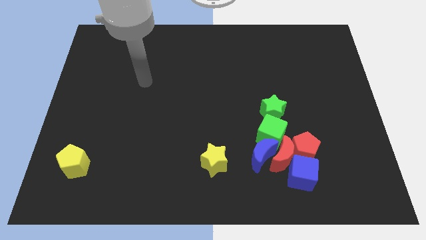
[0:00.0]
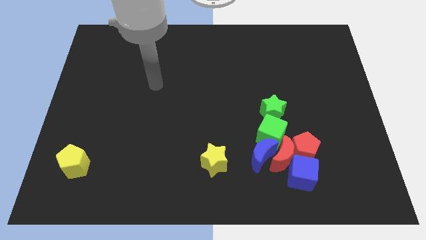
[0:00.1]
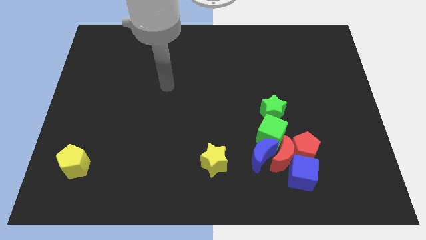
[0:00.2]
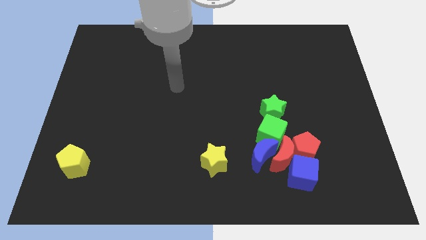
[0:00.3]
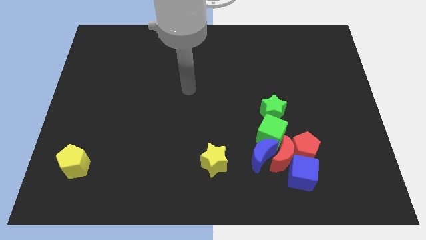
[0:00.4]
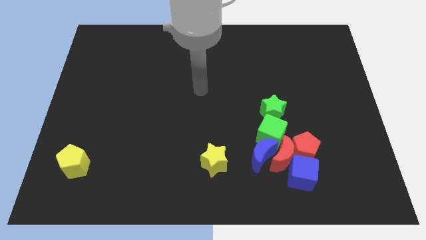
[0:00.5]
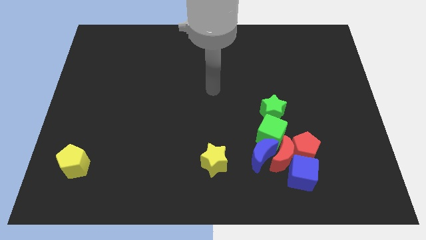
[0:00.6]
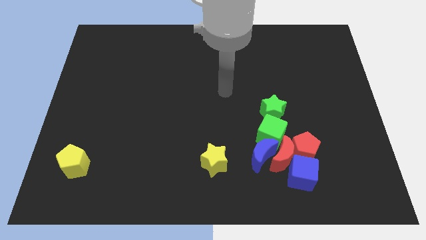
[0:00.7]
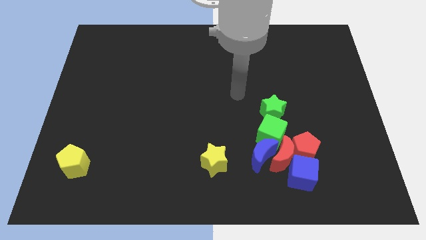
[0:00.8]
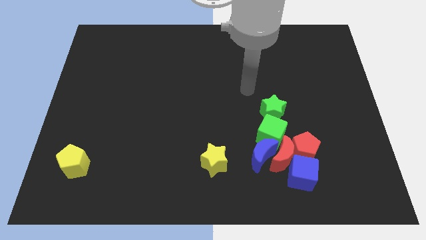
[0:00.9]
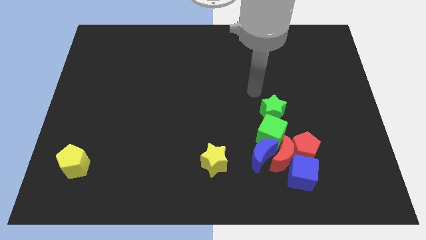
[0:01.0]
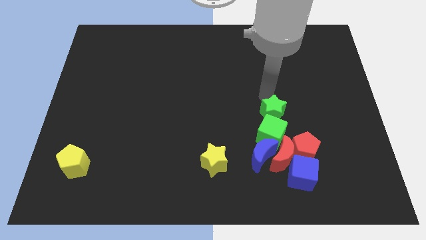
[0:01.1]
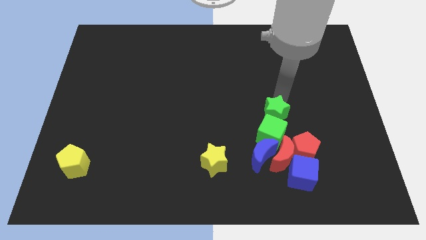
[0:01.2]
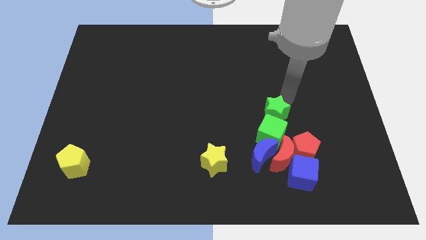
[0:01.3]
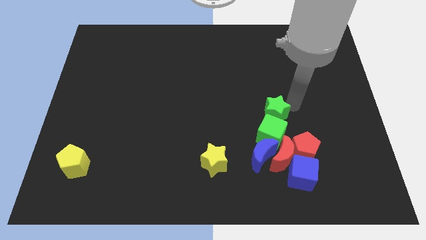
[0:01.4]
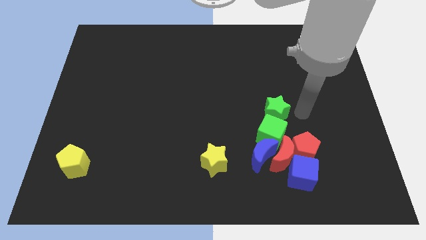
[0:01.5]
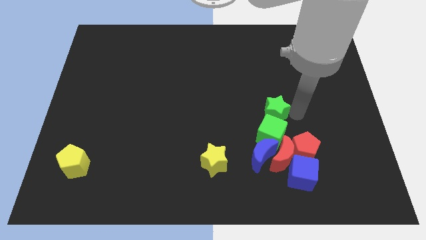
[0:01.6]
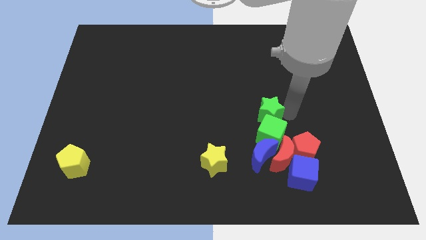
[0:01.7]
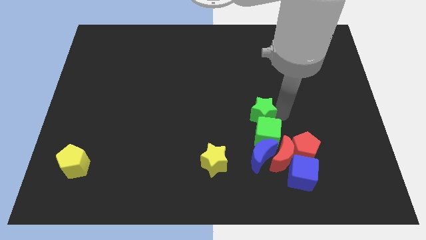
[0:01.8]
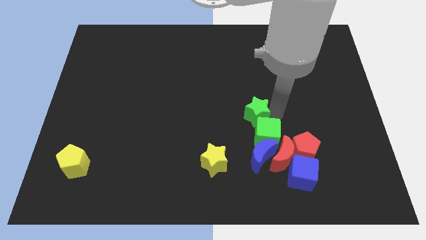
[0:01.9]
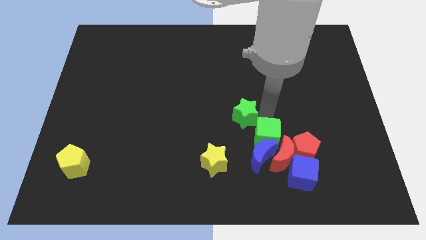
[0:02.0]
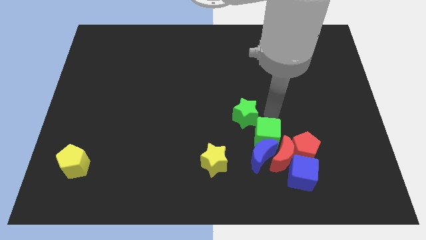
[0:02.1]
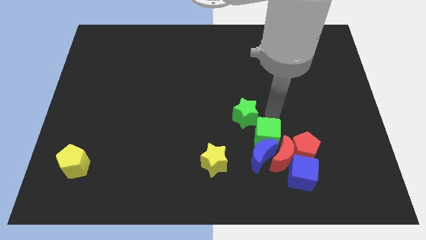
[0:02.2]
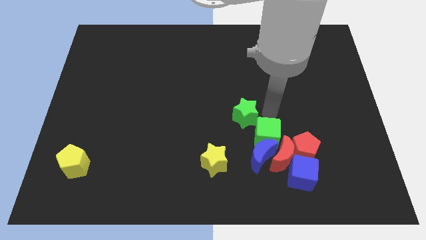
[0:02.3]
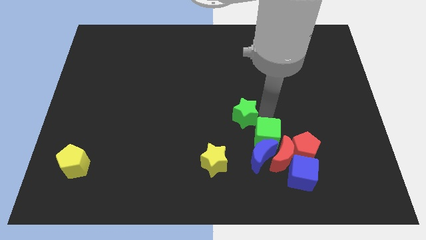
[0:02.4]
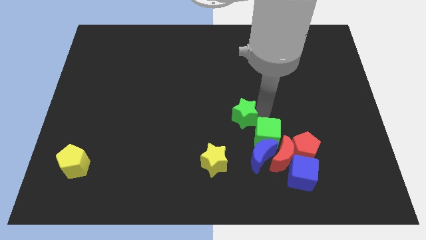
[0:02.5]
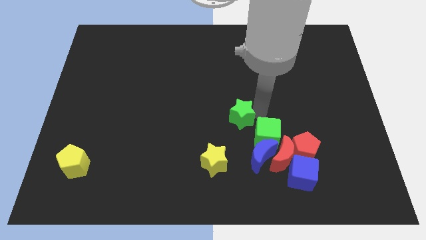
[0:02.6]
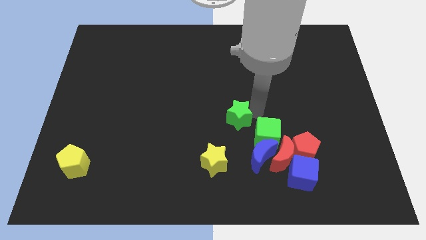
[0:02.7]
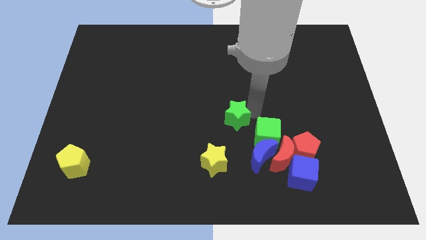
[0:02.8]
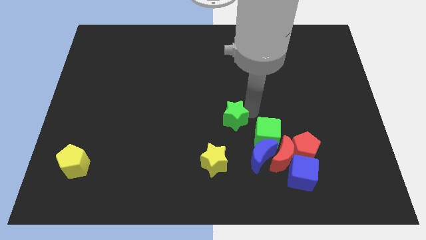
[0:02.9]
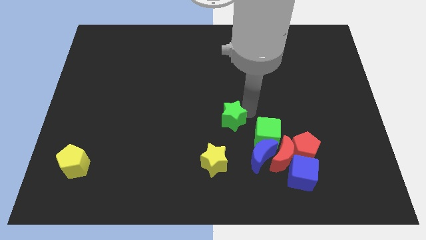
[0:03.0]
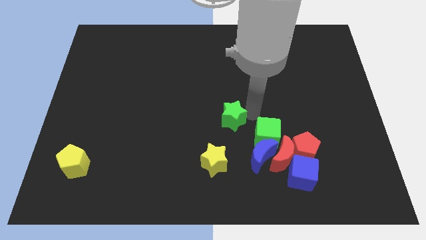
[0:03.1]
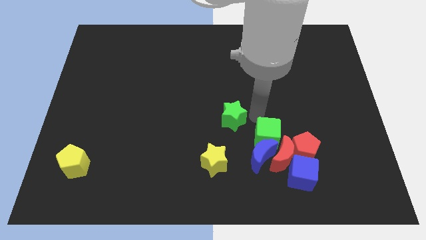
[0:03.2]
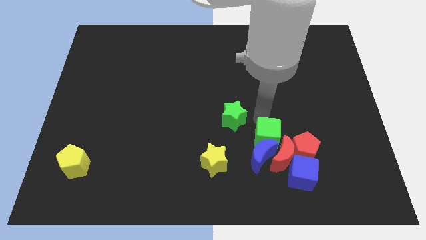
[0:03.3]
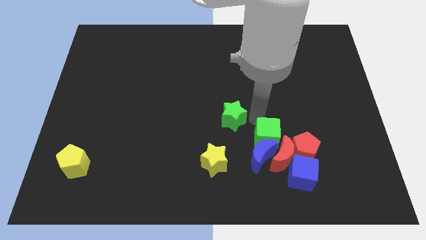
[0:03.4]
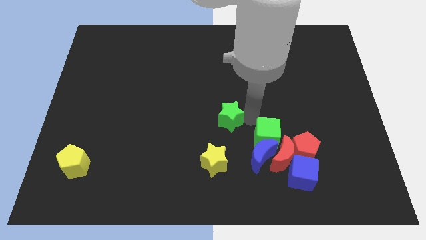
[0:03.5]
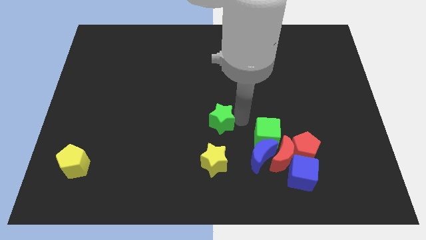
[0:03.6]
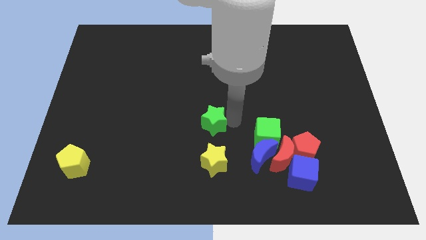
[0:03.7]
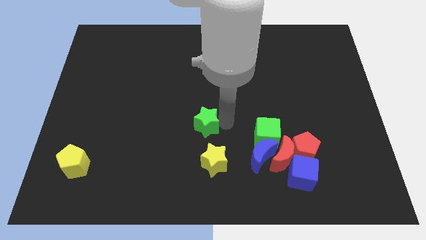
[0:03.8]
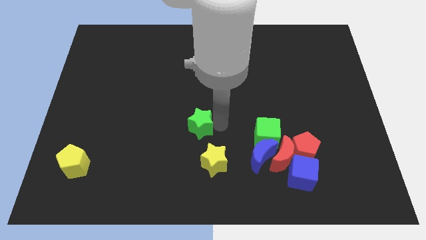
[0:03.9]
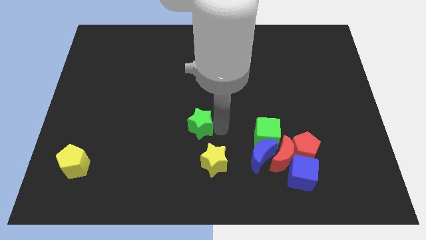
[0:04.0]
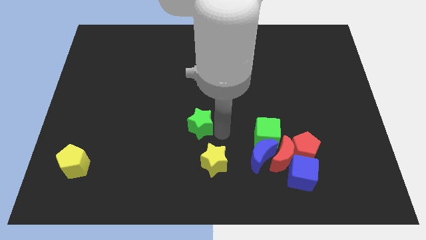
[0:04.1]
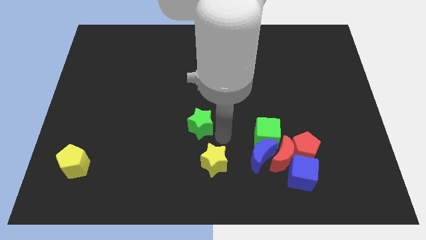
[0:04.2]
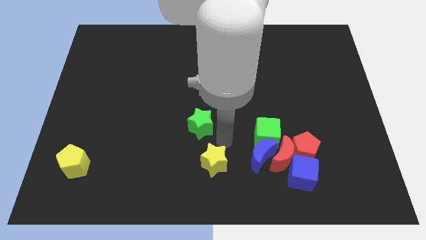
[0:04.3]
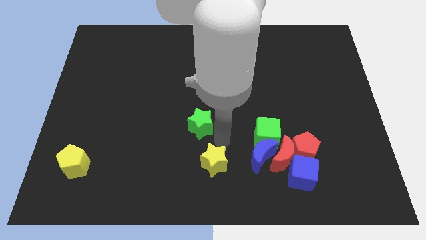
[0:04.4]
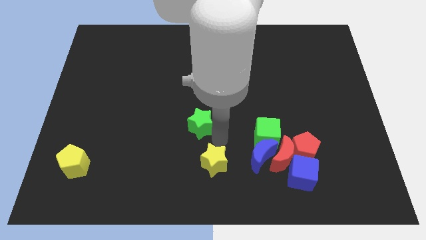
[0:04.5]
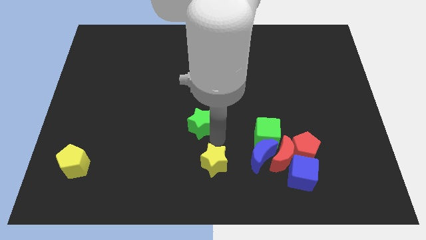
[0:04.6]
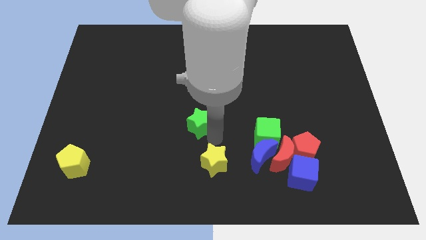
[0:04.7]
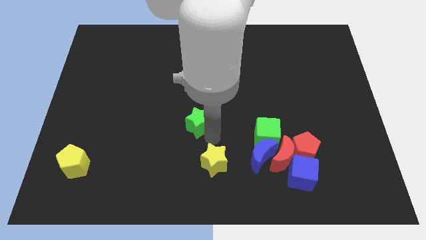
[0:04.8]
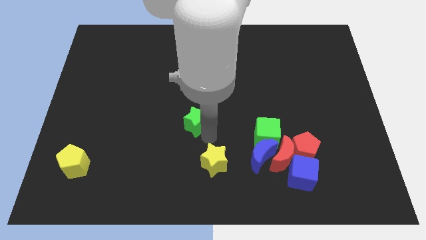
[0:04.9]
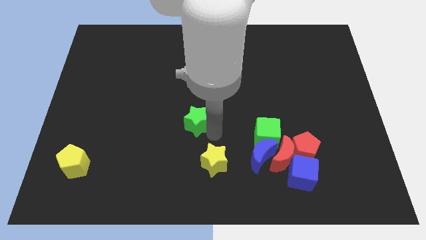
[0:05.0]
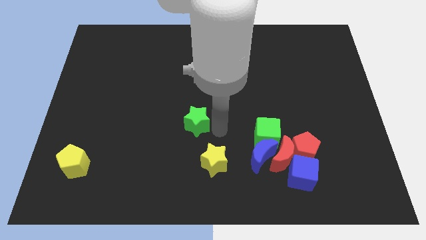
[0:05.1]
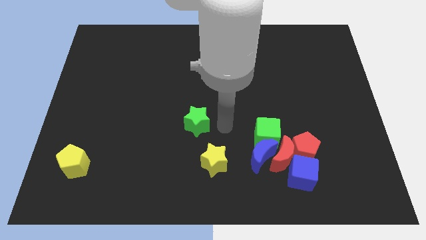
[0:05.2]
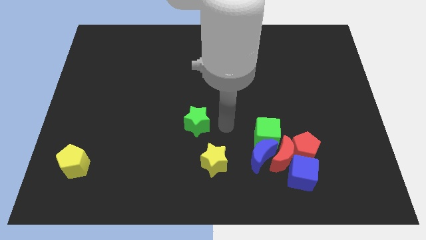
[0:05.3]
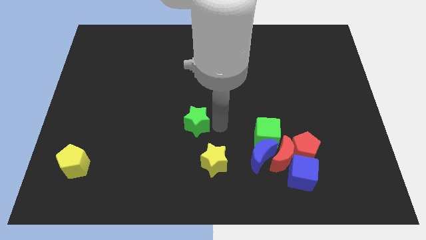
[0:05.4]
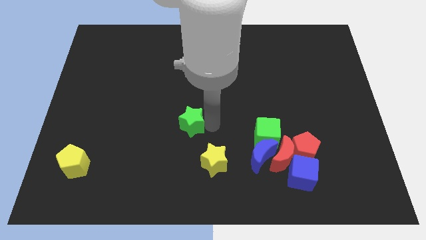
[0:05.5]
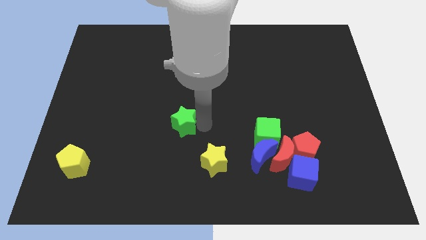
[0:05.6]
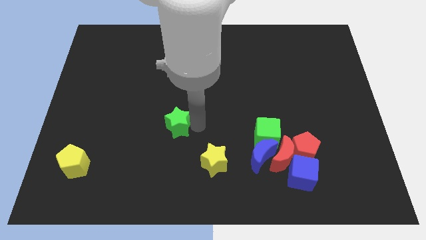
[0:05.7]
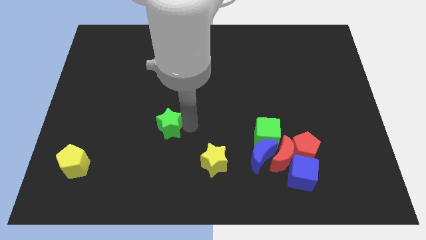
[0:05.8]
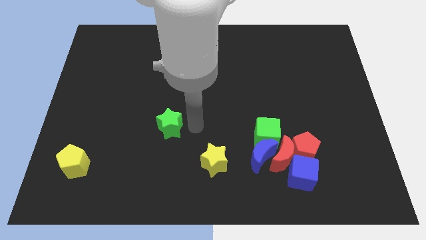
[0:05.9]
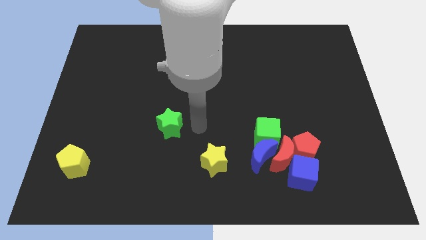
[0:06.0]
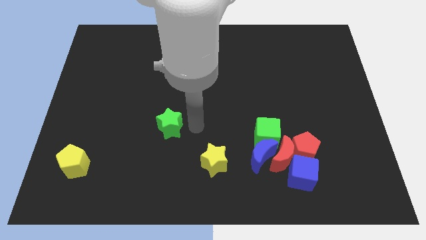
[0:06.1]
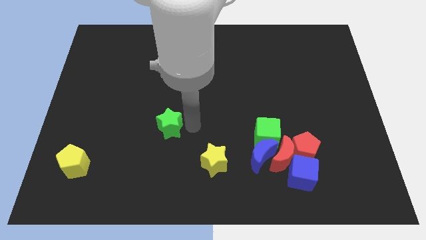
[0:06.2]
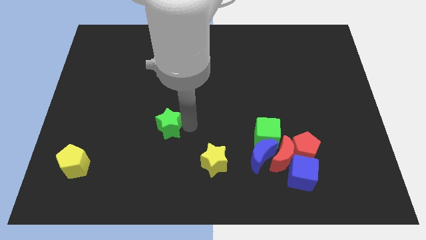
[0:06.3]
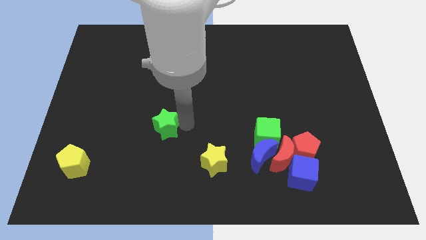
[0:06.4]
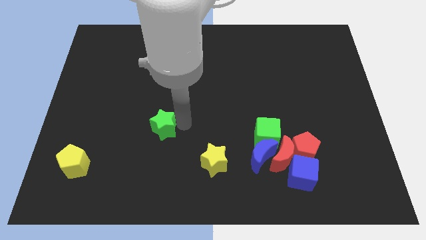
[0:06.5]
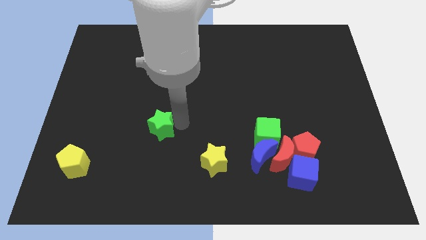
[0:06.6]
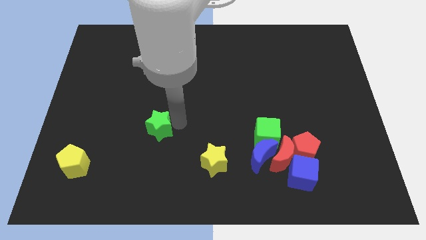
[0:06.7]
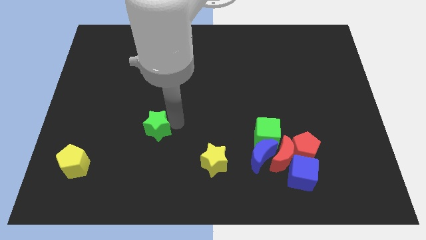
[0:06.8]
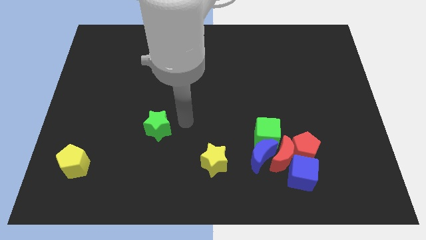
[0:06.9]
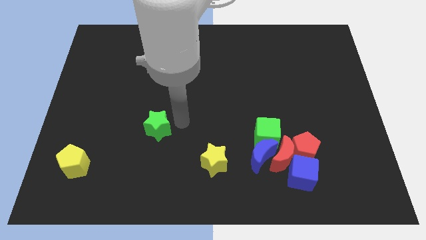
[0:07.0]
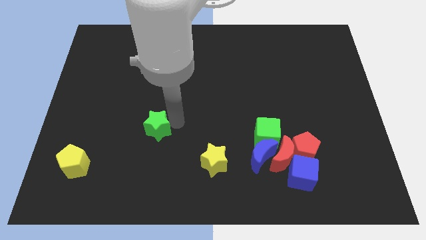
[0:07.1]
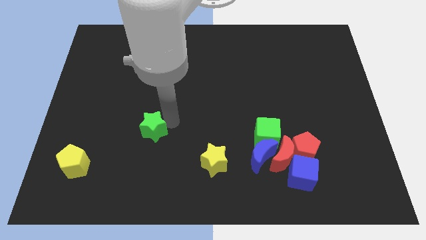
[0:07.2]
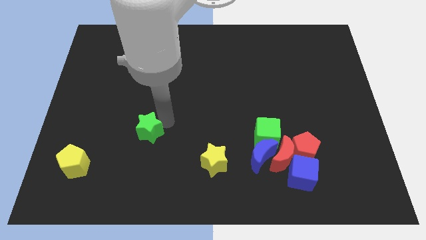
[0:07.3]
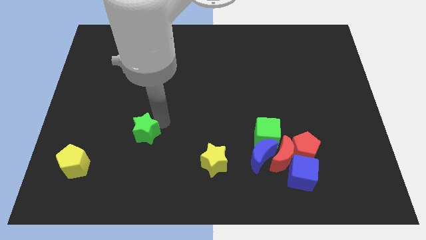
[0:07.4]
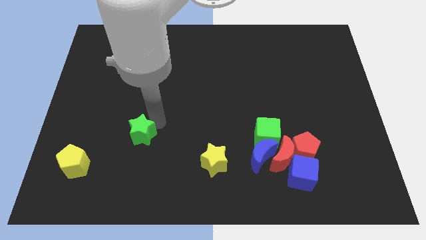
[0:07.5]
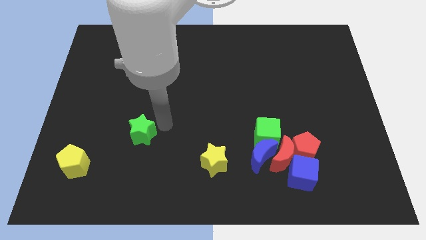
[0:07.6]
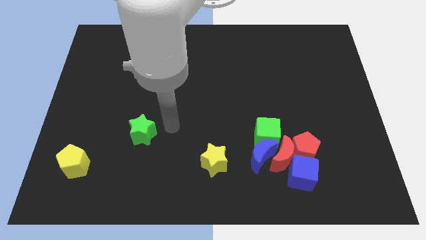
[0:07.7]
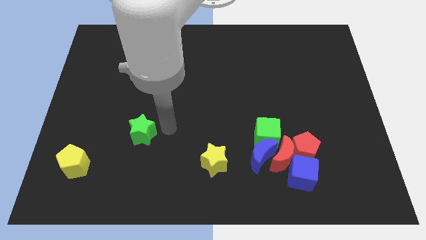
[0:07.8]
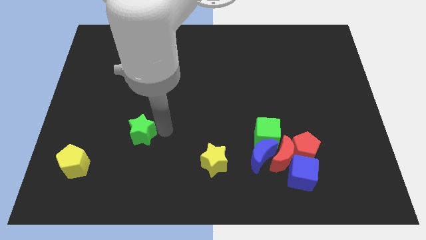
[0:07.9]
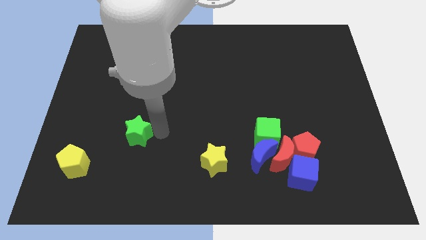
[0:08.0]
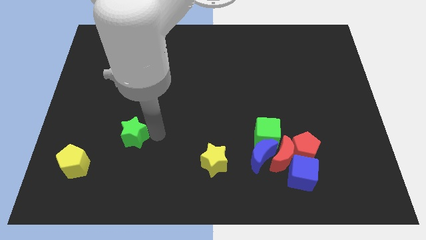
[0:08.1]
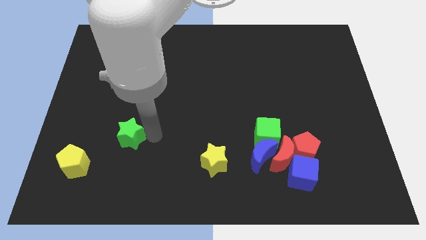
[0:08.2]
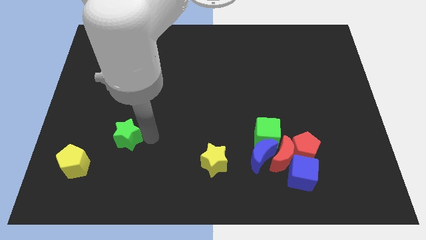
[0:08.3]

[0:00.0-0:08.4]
slide the green star diagonally up and to the right of the yellow pentagon

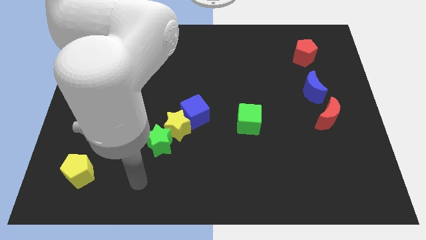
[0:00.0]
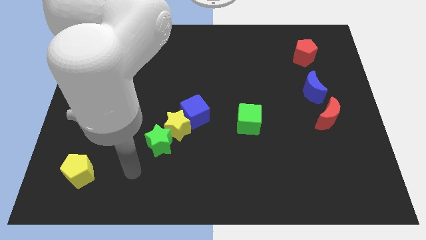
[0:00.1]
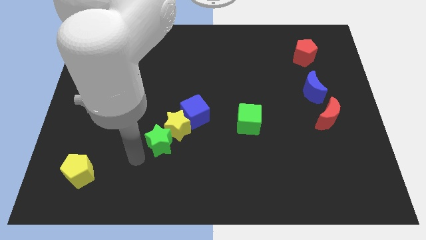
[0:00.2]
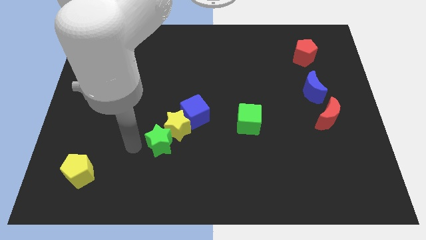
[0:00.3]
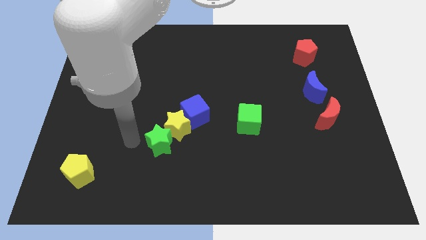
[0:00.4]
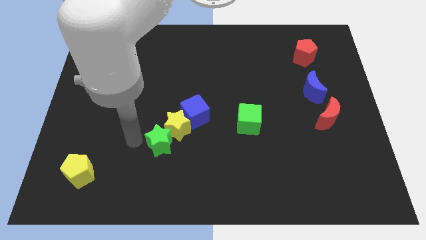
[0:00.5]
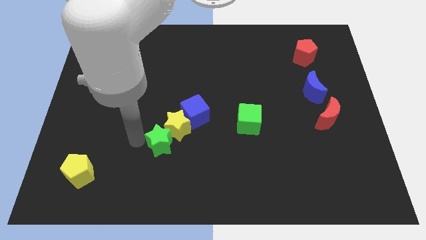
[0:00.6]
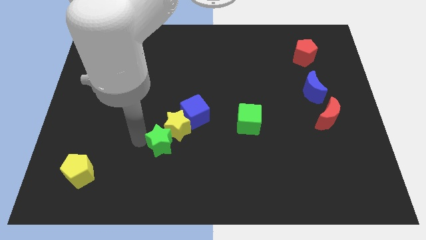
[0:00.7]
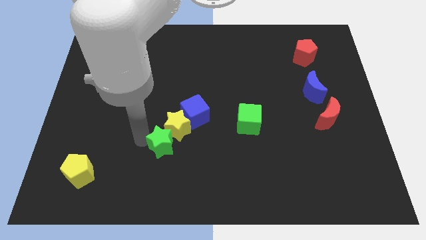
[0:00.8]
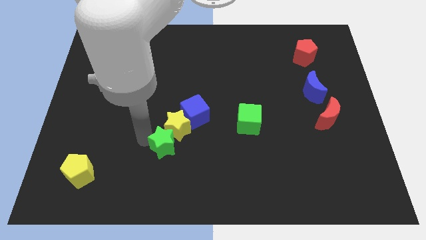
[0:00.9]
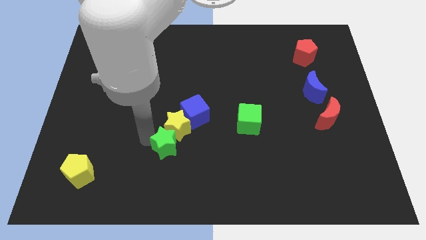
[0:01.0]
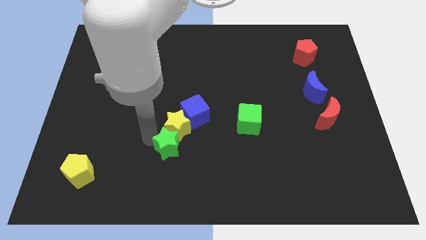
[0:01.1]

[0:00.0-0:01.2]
move the green star to the bottom right of the yellow star
